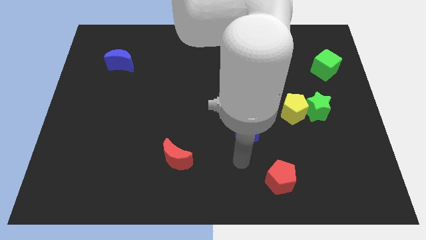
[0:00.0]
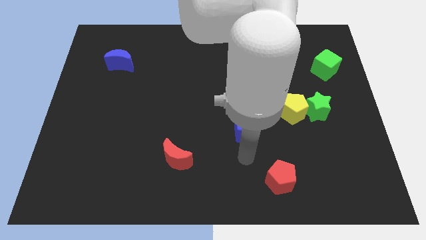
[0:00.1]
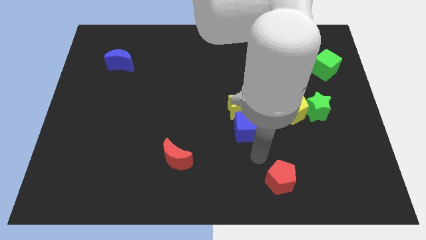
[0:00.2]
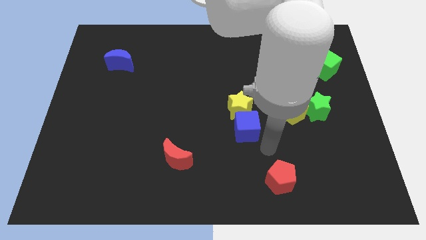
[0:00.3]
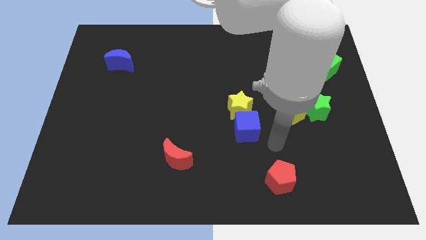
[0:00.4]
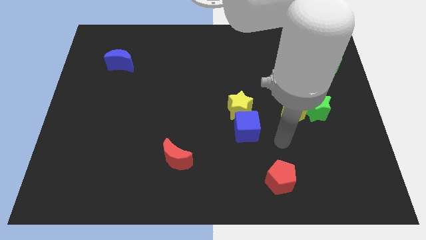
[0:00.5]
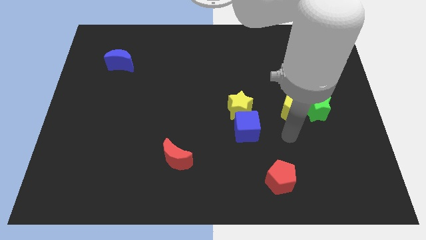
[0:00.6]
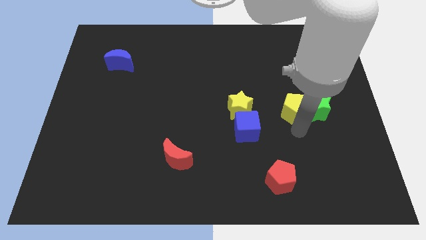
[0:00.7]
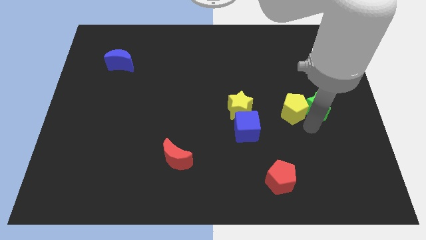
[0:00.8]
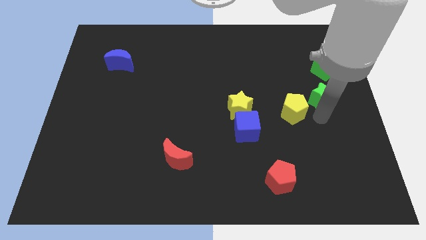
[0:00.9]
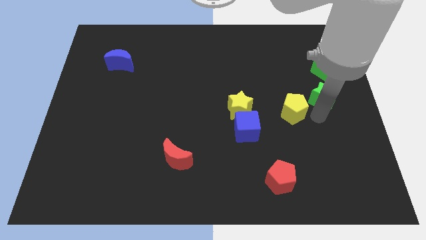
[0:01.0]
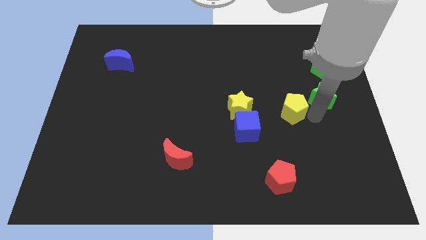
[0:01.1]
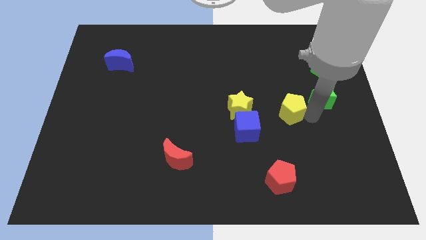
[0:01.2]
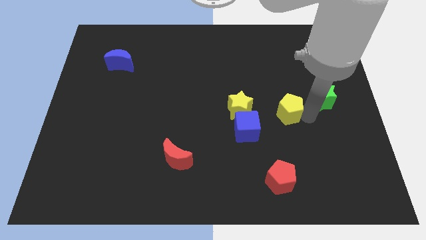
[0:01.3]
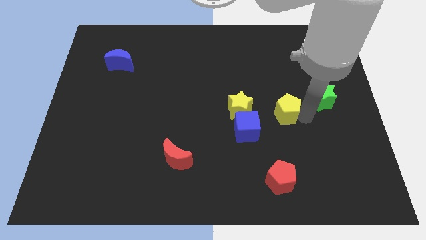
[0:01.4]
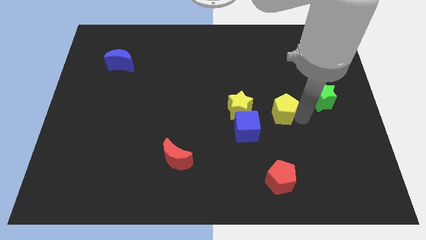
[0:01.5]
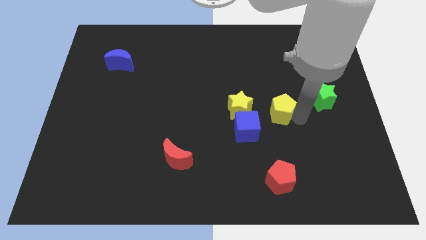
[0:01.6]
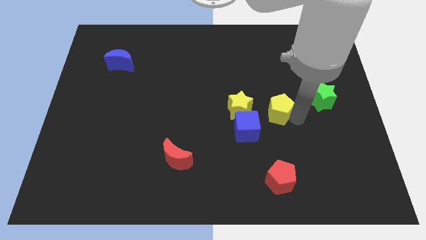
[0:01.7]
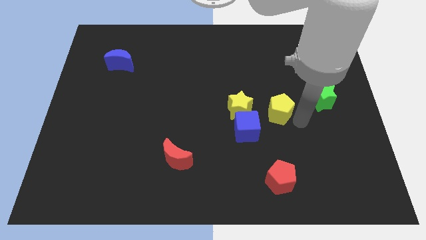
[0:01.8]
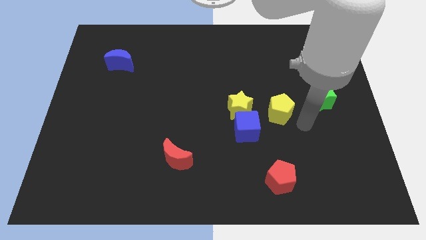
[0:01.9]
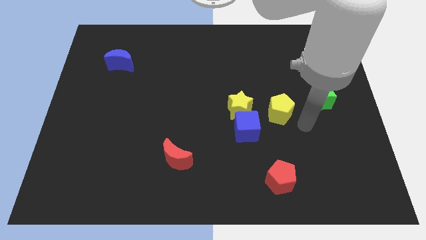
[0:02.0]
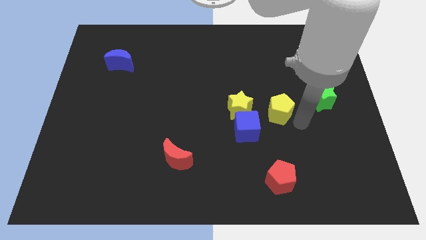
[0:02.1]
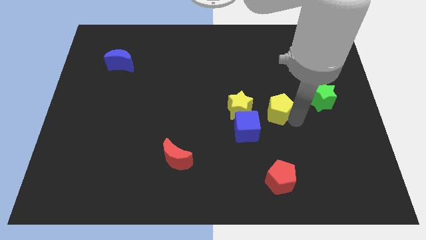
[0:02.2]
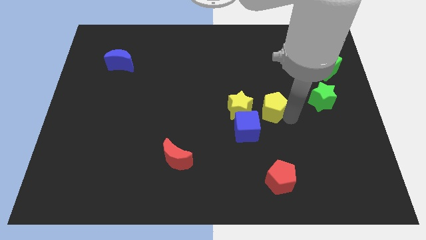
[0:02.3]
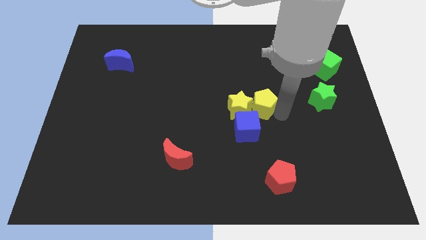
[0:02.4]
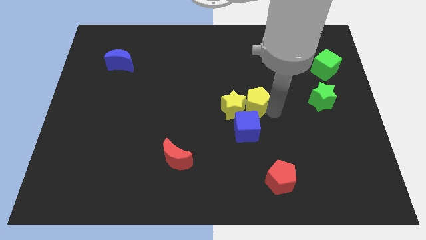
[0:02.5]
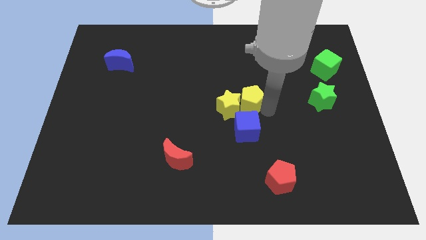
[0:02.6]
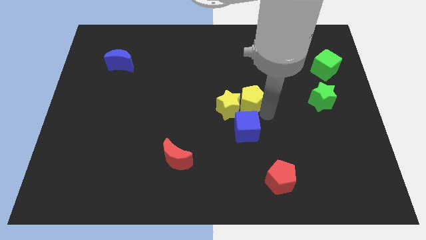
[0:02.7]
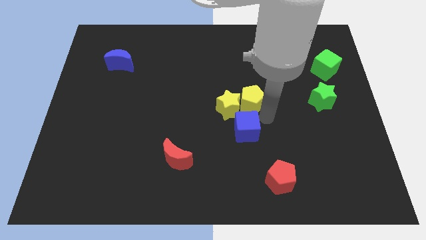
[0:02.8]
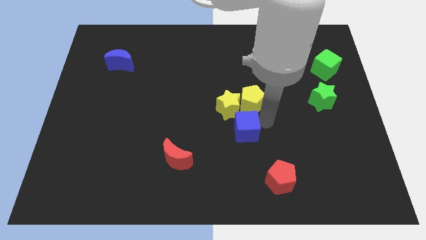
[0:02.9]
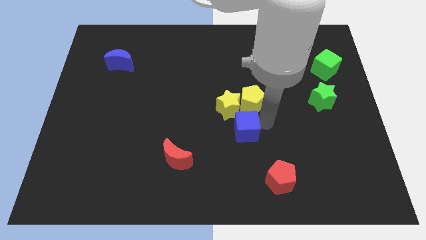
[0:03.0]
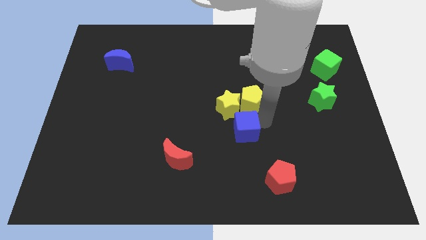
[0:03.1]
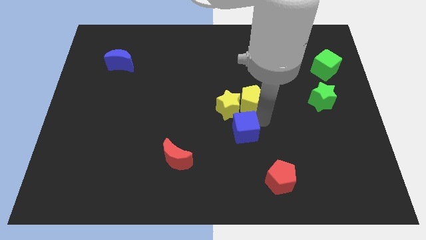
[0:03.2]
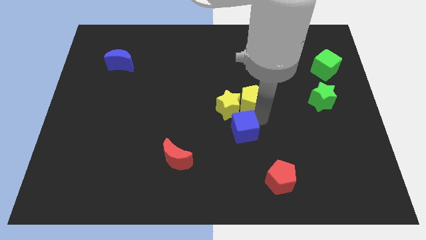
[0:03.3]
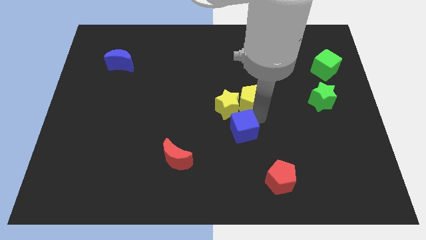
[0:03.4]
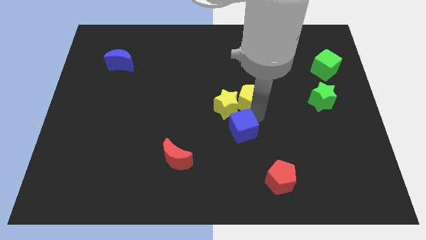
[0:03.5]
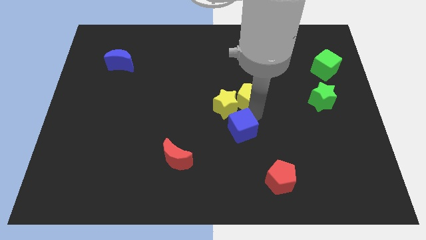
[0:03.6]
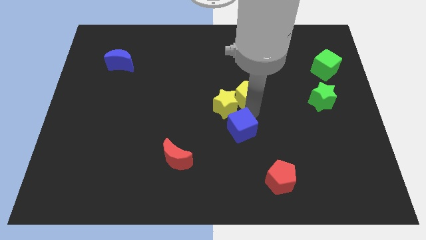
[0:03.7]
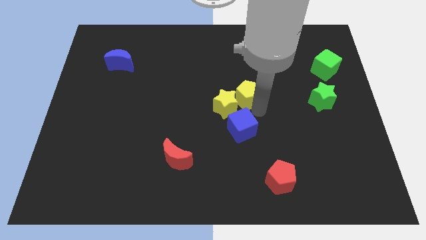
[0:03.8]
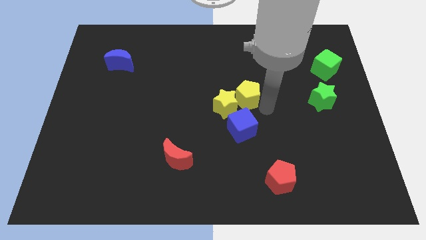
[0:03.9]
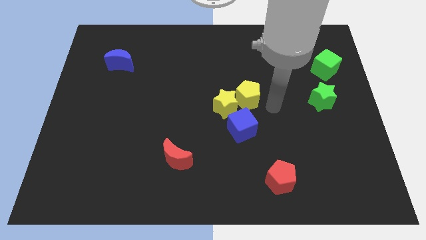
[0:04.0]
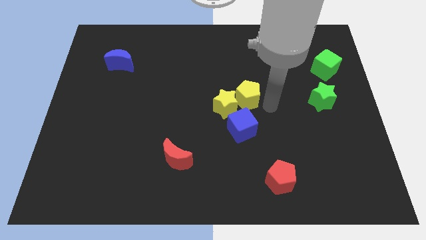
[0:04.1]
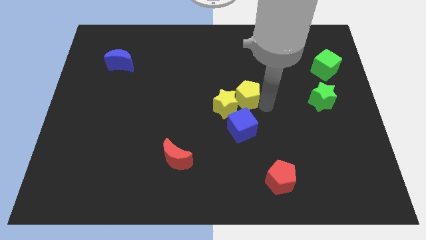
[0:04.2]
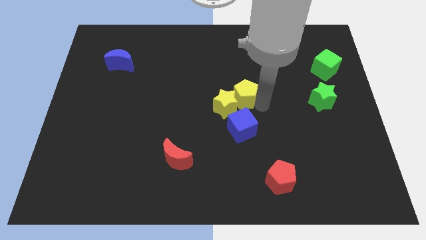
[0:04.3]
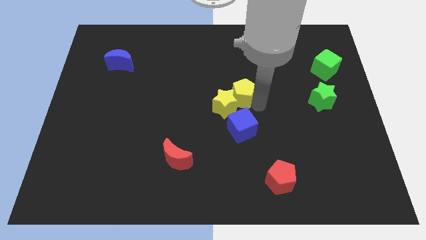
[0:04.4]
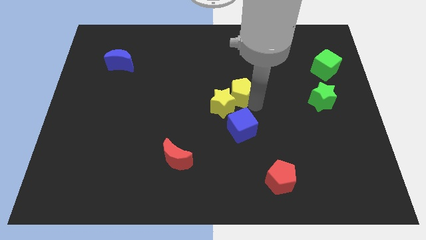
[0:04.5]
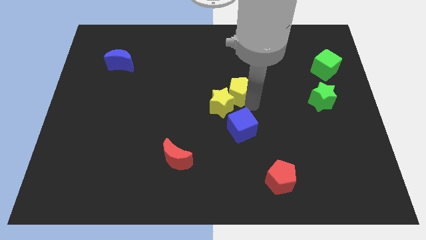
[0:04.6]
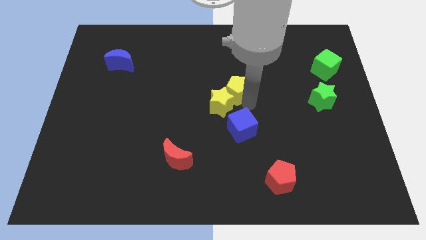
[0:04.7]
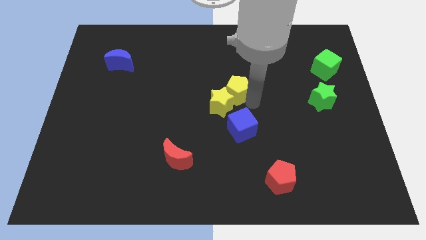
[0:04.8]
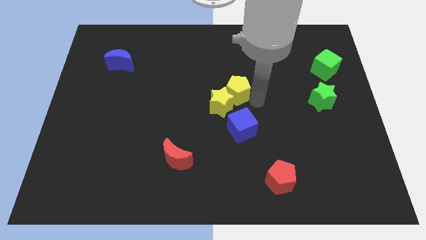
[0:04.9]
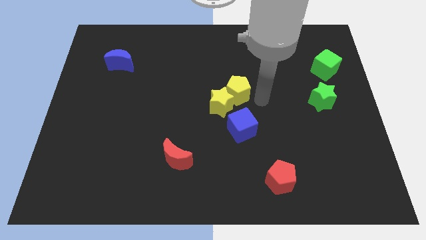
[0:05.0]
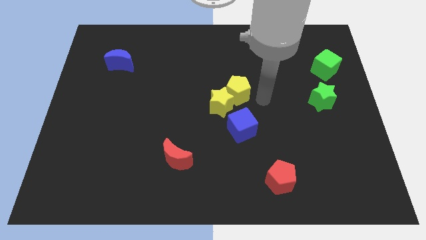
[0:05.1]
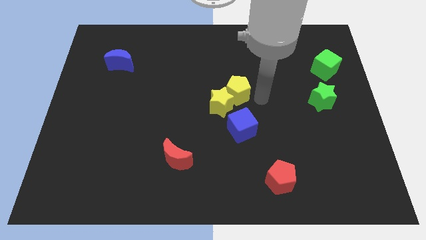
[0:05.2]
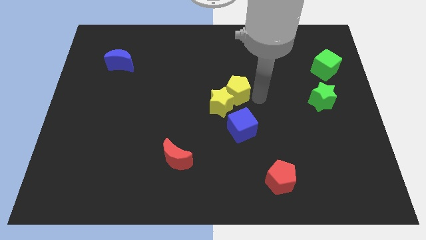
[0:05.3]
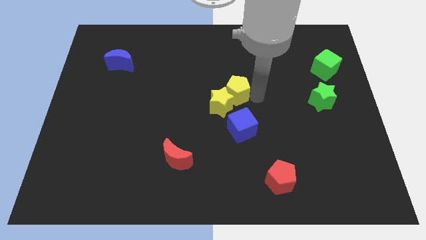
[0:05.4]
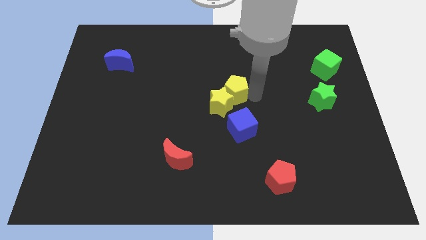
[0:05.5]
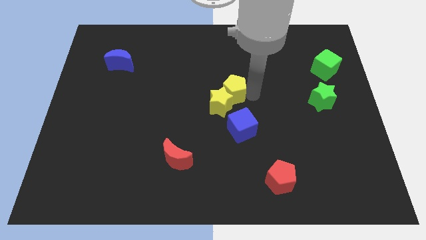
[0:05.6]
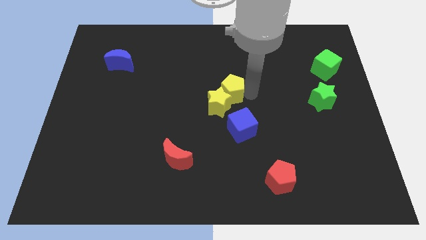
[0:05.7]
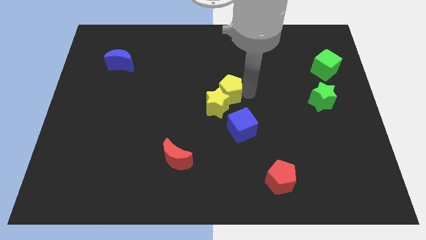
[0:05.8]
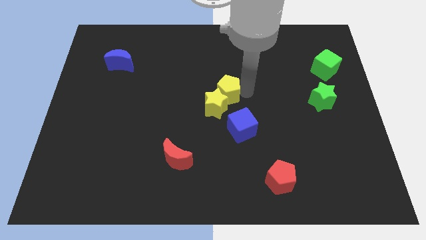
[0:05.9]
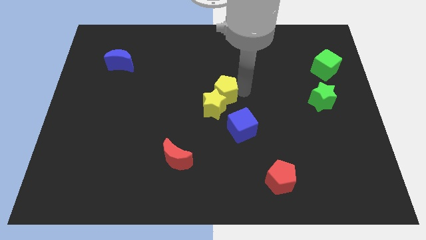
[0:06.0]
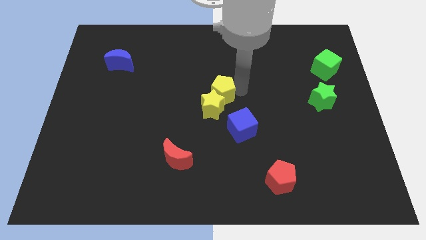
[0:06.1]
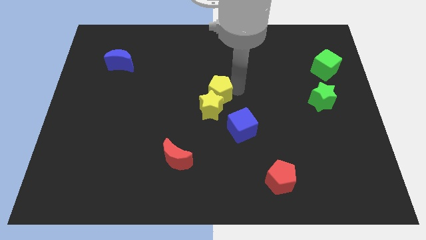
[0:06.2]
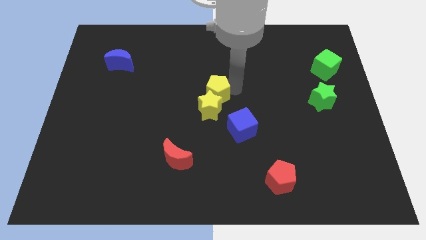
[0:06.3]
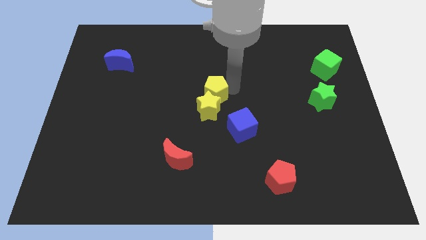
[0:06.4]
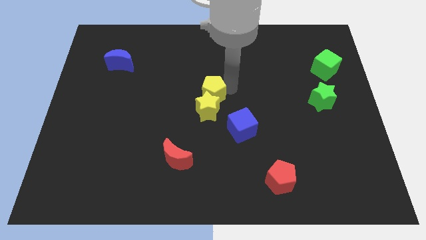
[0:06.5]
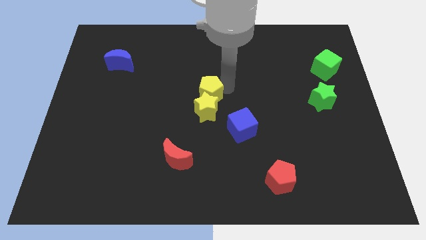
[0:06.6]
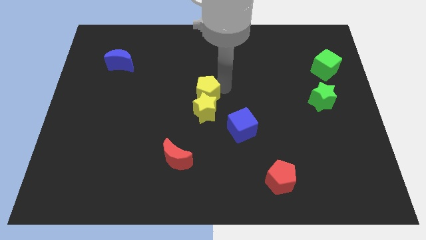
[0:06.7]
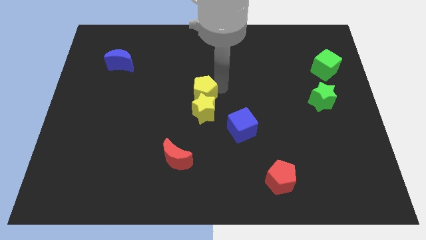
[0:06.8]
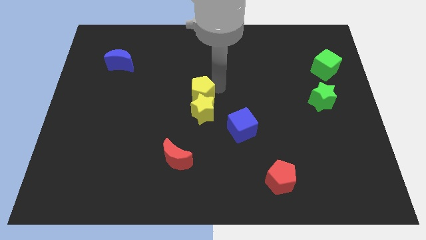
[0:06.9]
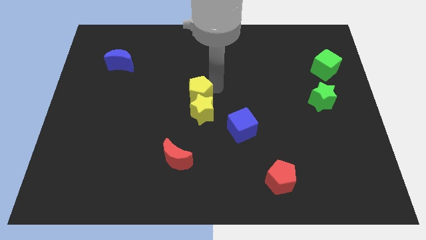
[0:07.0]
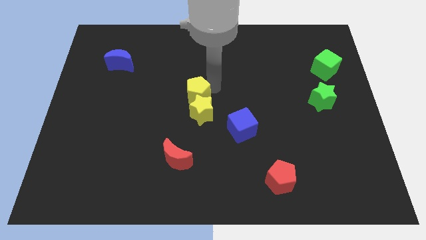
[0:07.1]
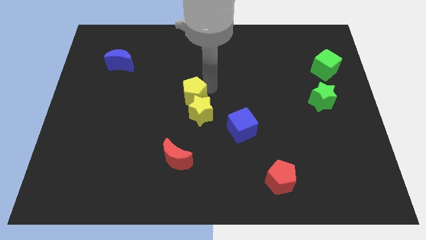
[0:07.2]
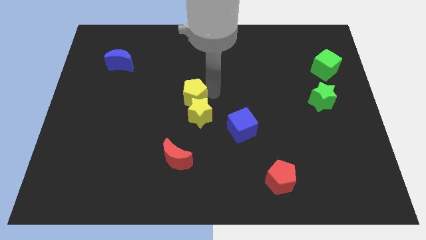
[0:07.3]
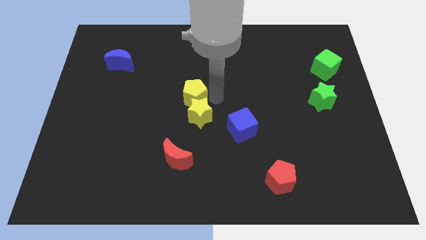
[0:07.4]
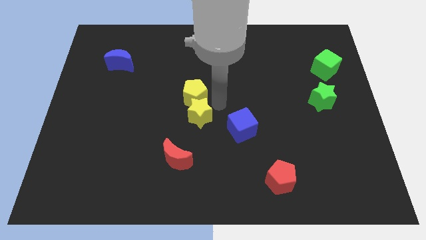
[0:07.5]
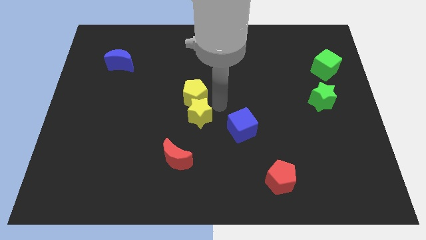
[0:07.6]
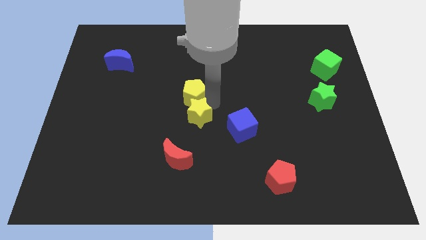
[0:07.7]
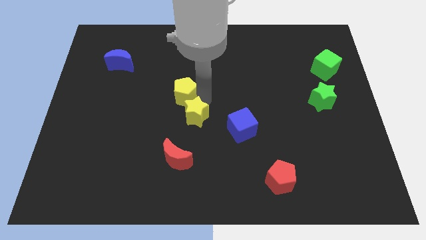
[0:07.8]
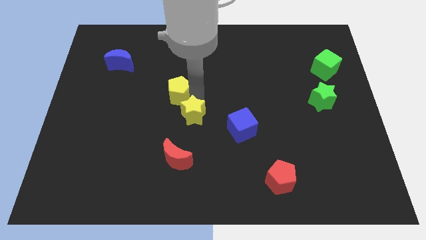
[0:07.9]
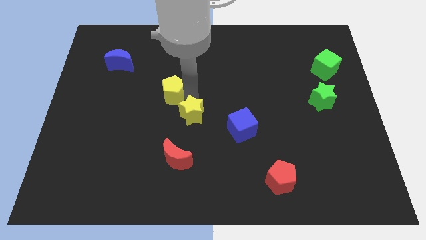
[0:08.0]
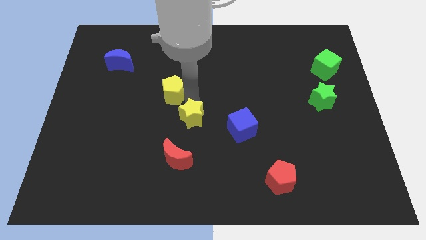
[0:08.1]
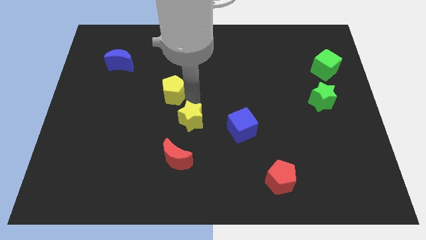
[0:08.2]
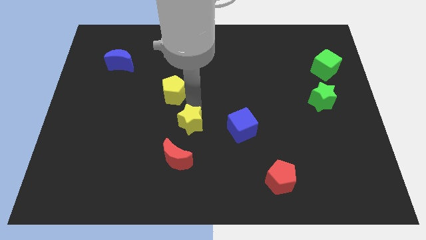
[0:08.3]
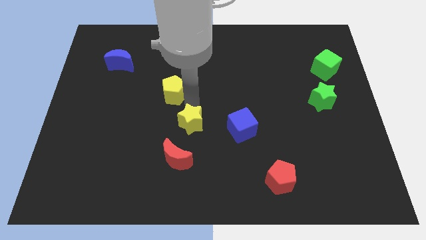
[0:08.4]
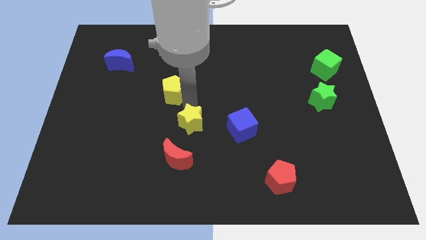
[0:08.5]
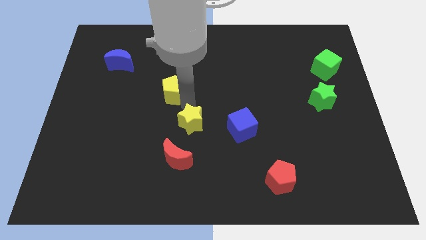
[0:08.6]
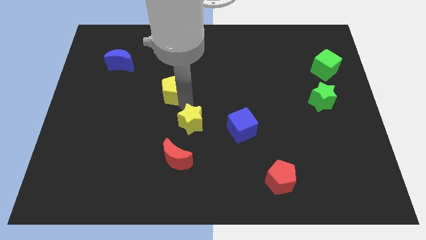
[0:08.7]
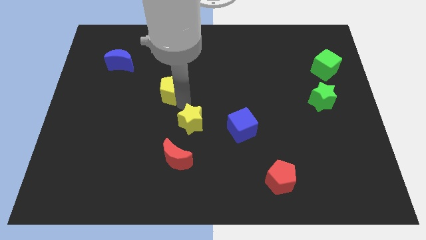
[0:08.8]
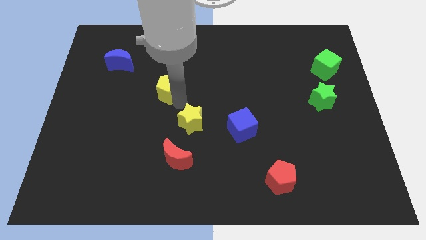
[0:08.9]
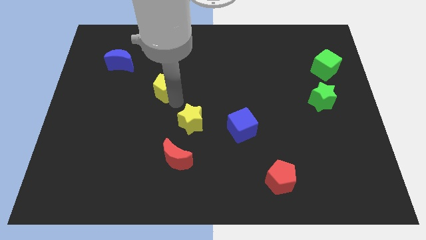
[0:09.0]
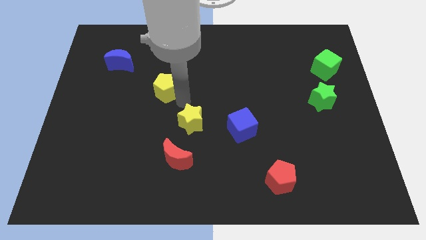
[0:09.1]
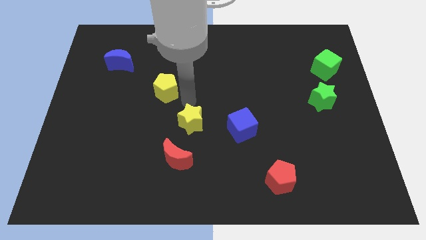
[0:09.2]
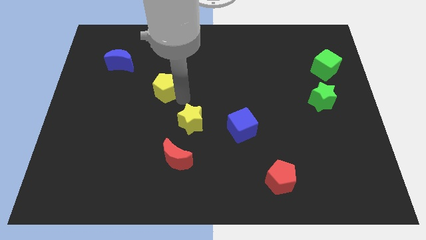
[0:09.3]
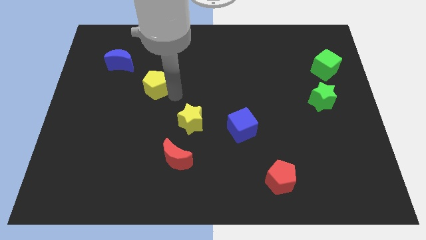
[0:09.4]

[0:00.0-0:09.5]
move the yellow pentagon to the bottom right of the blue moon
